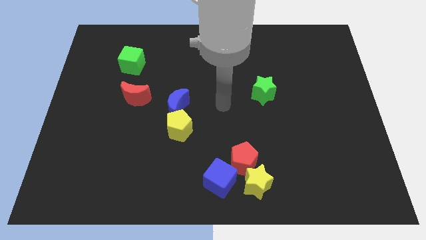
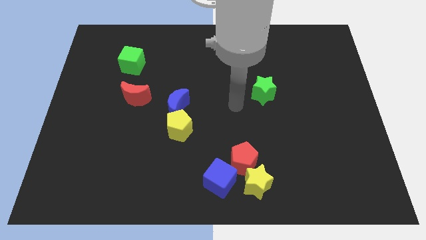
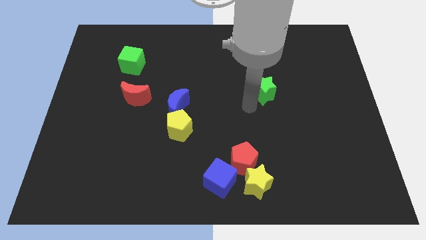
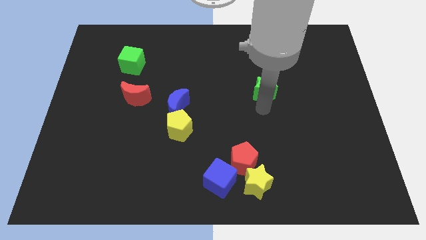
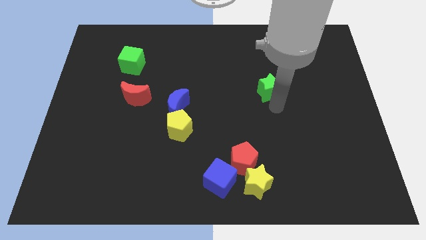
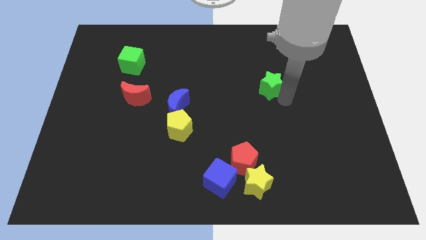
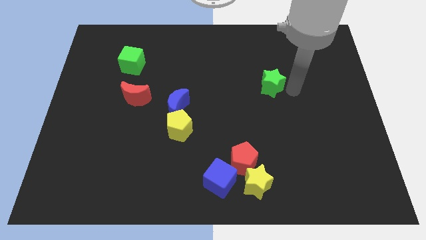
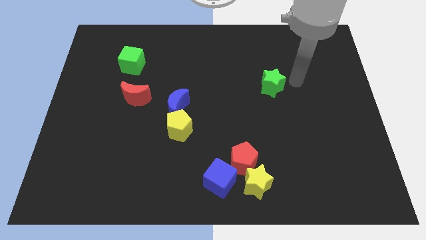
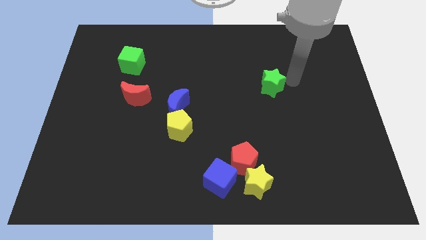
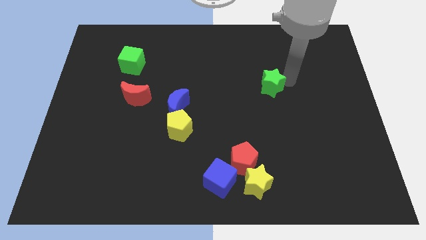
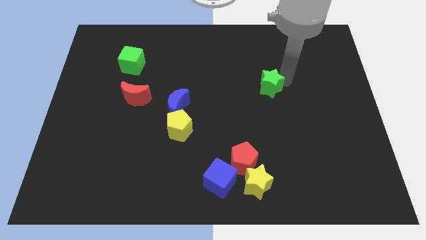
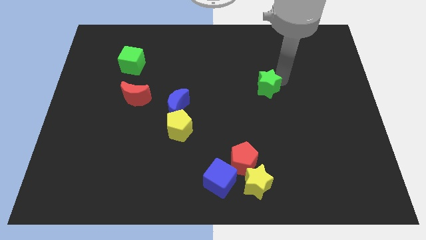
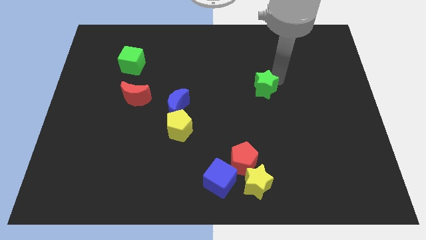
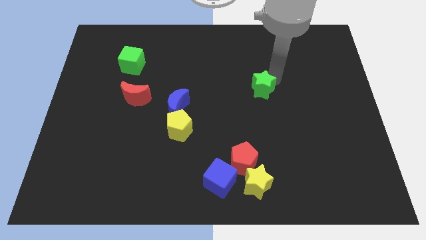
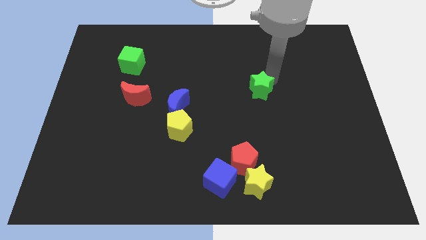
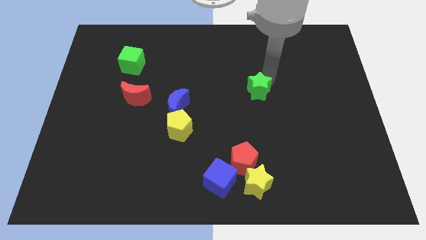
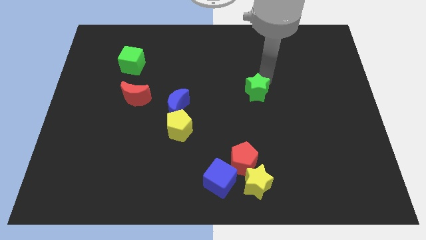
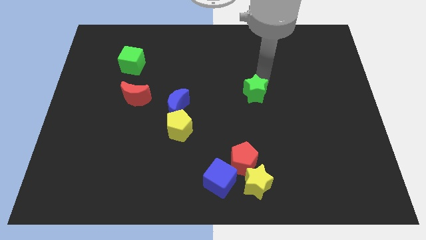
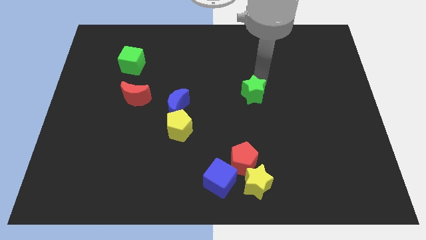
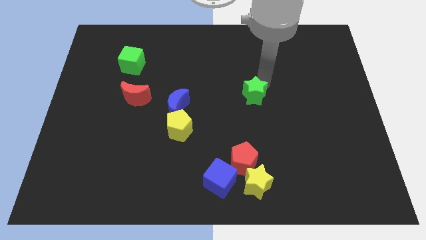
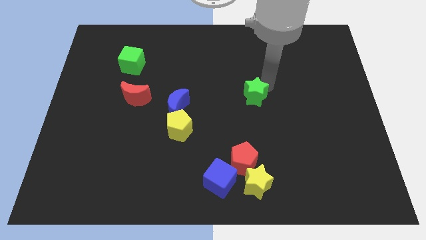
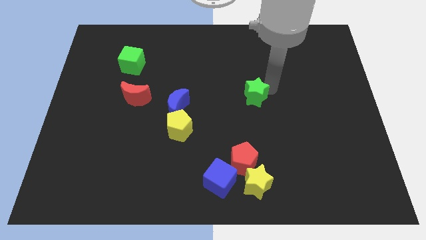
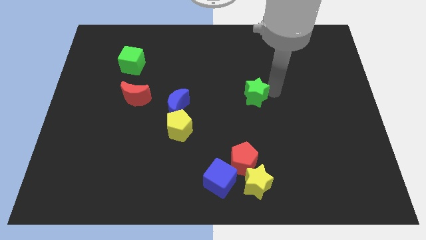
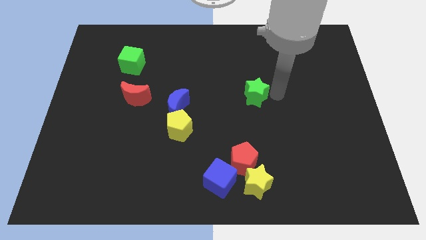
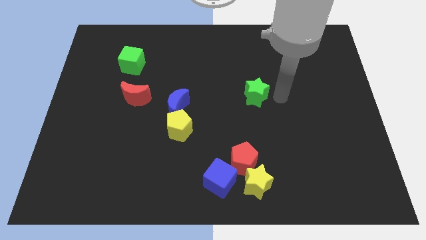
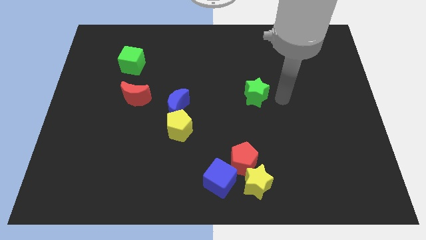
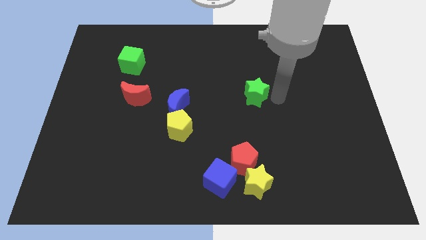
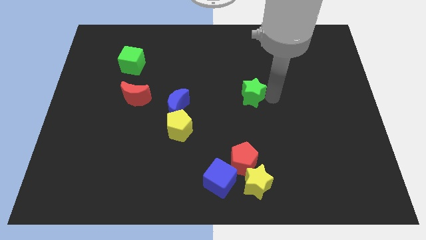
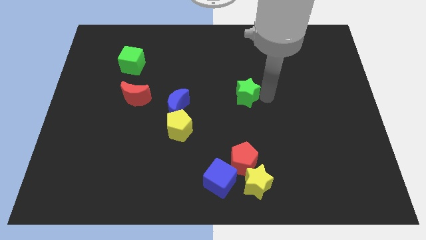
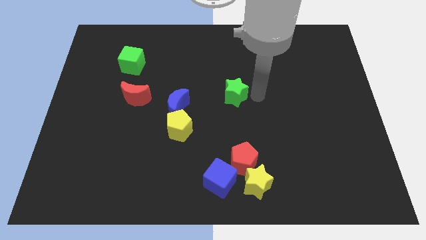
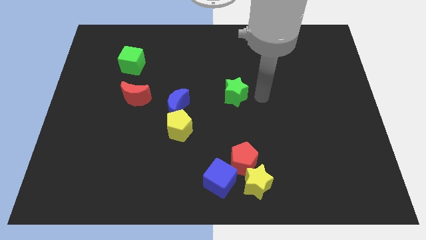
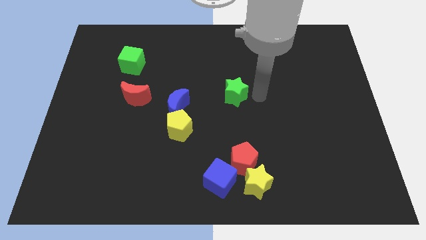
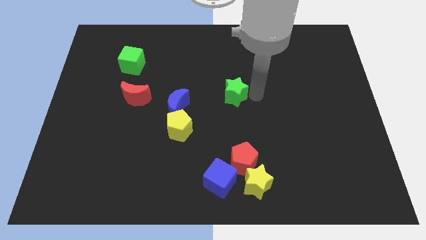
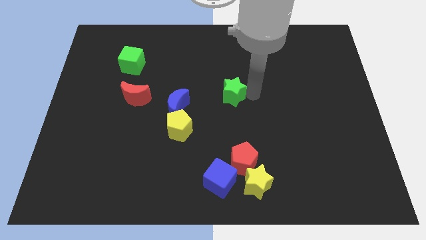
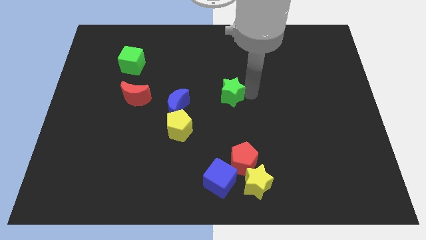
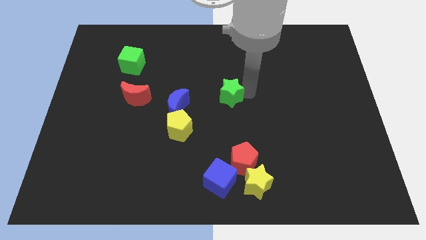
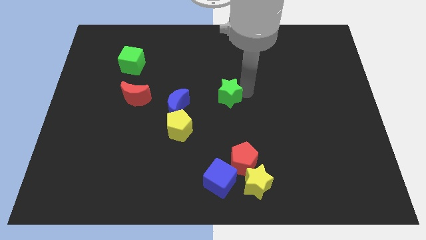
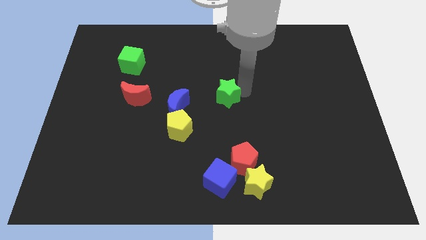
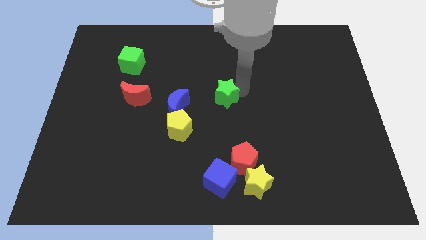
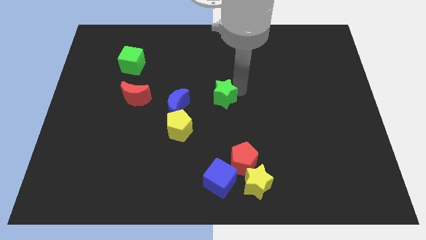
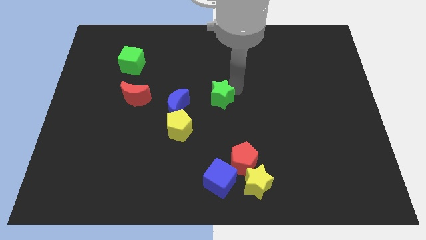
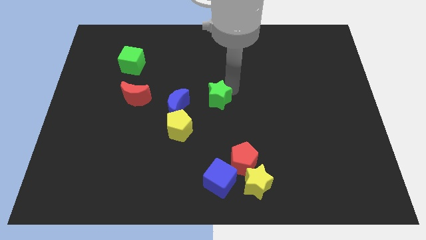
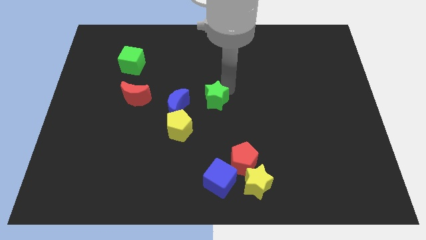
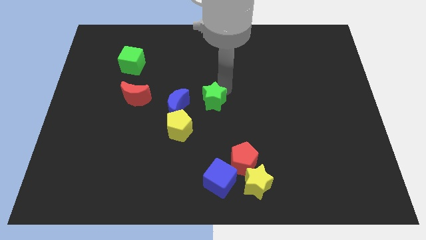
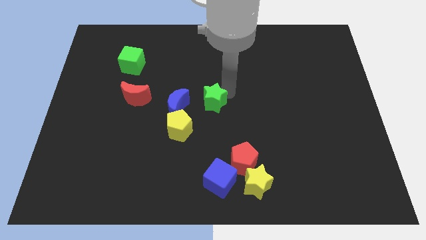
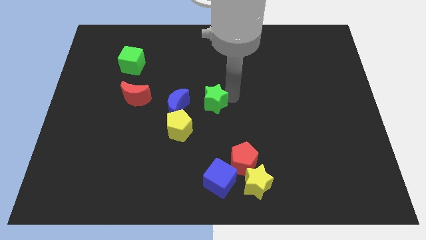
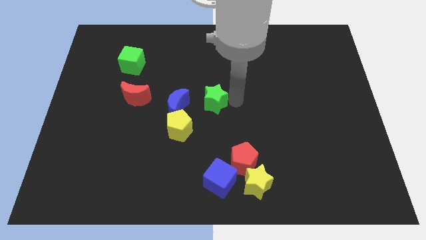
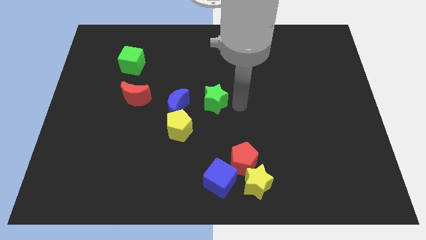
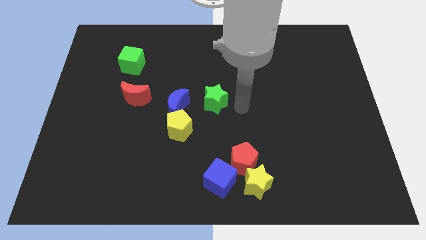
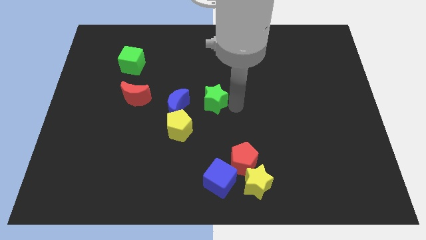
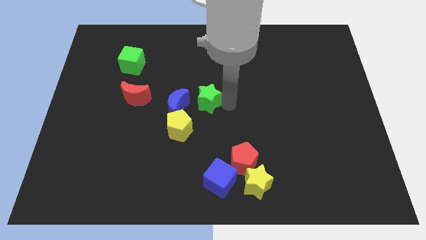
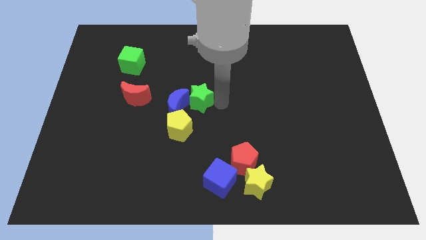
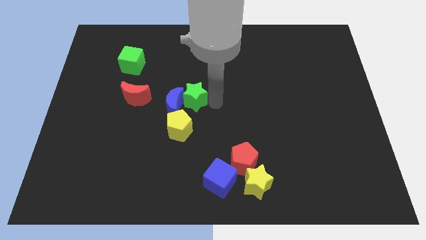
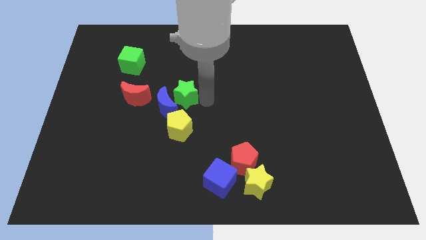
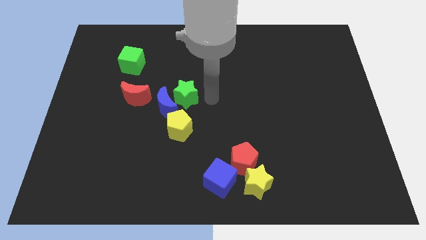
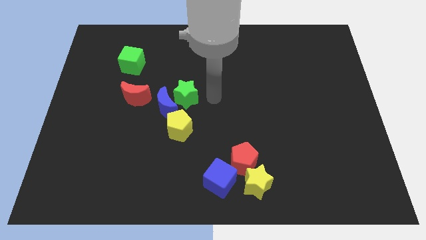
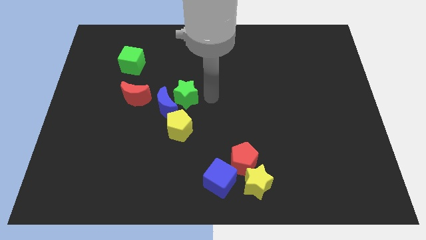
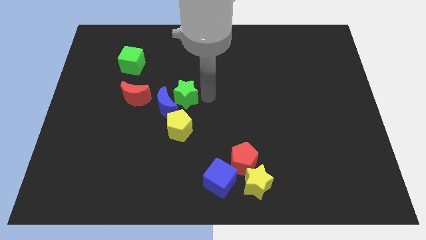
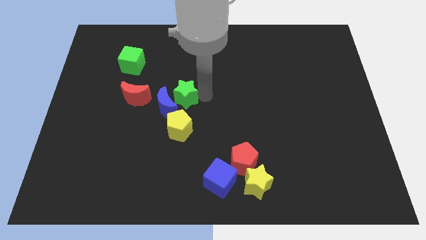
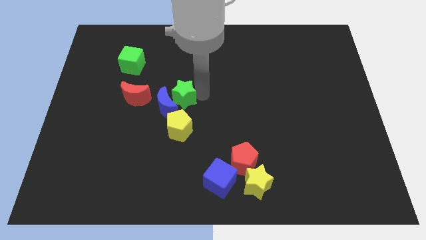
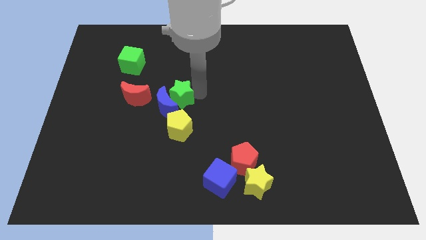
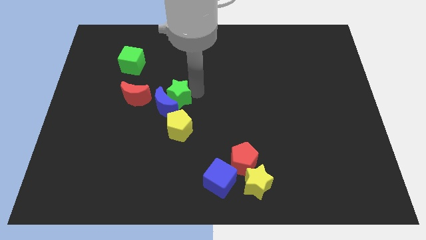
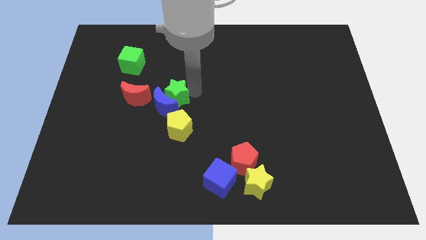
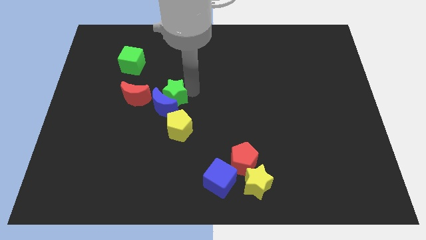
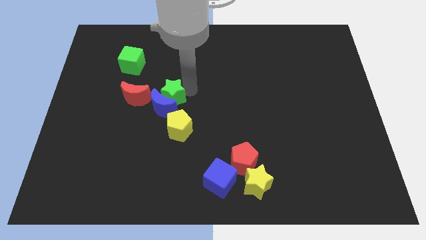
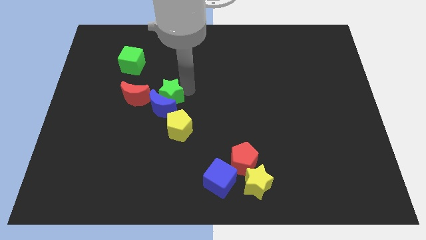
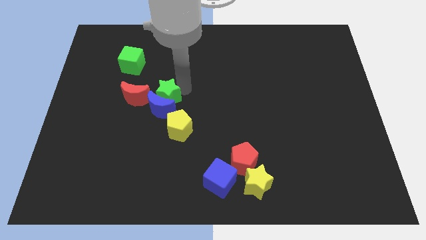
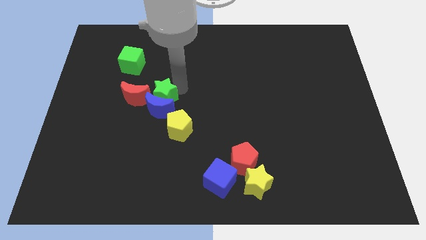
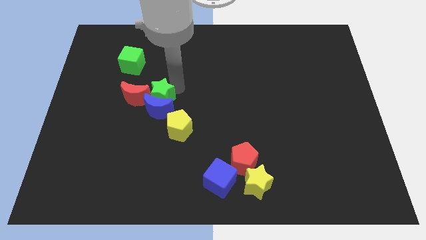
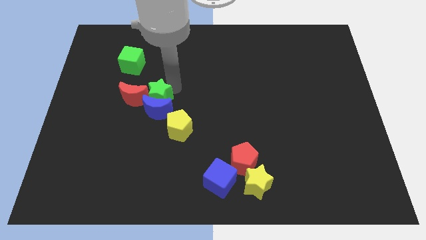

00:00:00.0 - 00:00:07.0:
push the green star close to the red moon
